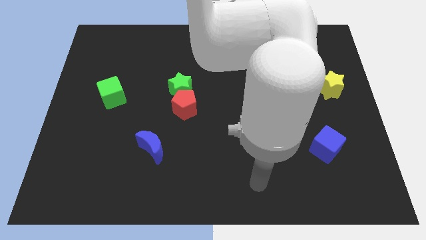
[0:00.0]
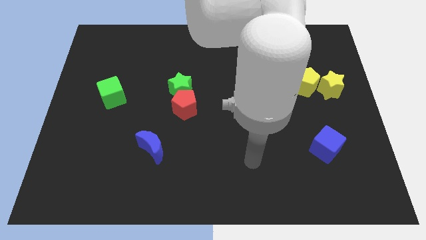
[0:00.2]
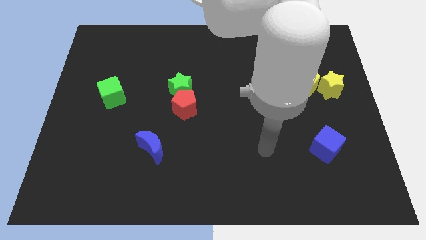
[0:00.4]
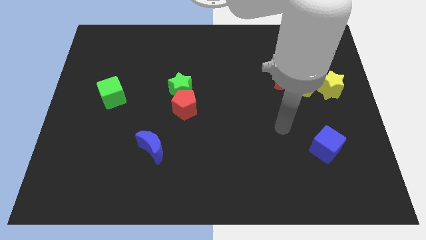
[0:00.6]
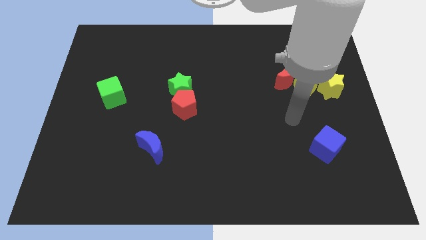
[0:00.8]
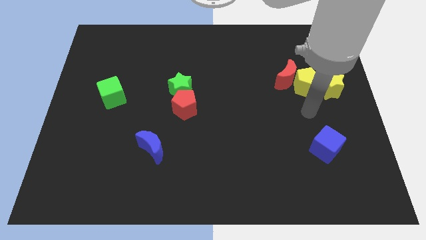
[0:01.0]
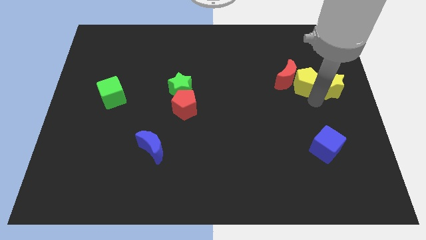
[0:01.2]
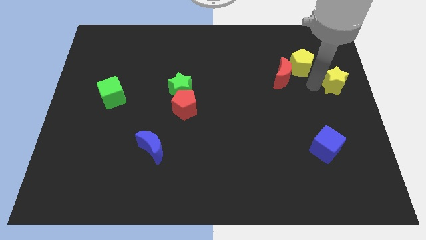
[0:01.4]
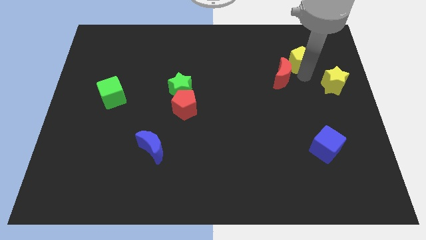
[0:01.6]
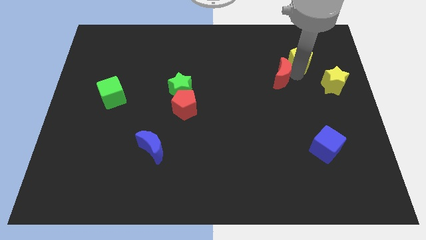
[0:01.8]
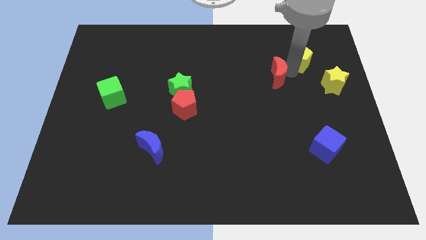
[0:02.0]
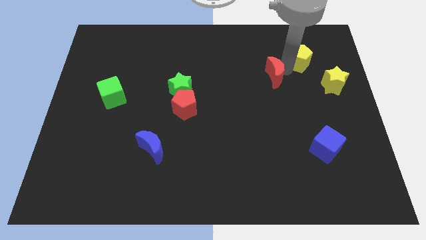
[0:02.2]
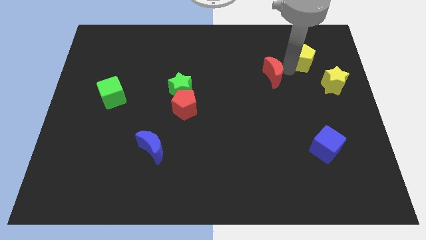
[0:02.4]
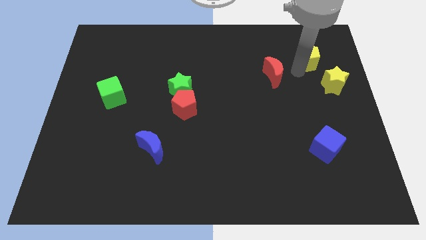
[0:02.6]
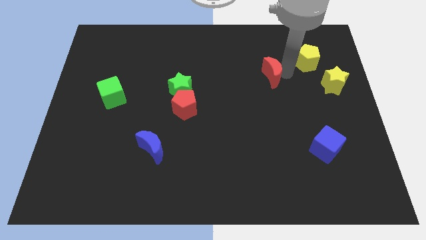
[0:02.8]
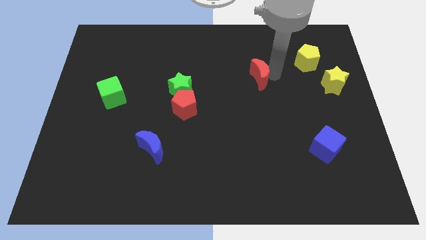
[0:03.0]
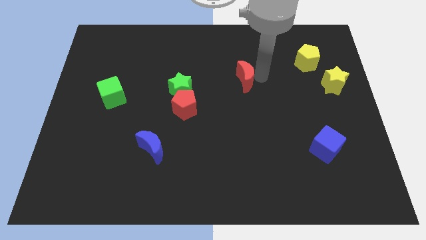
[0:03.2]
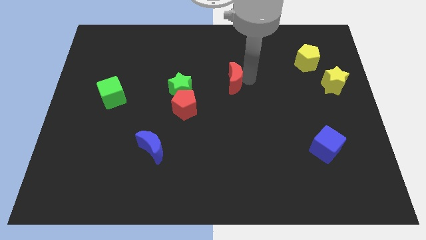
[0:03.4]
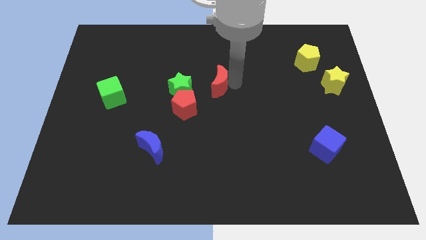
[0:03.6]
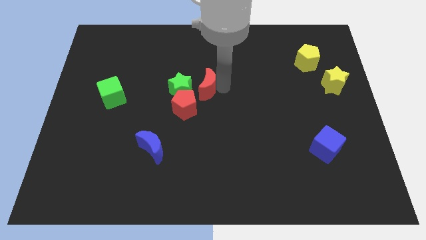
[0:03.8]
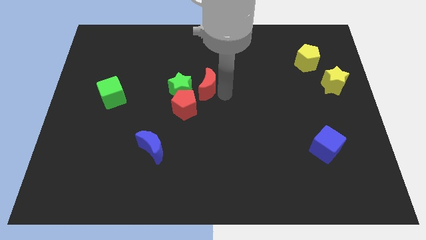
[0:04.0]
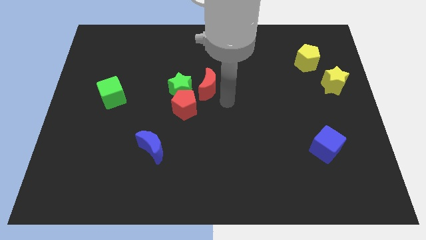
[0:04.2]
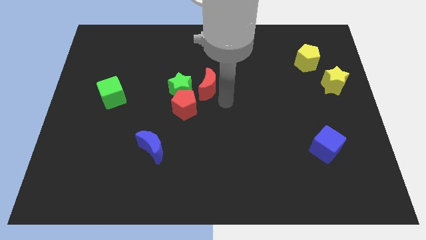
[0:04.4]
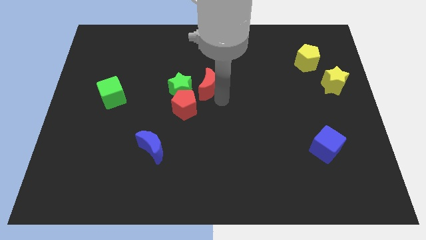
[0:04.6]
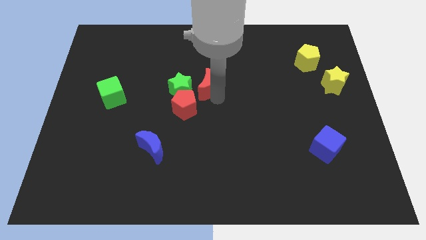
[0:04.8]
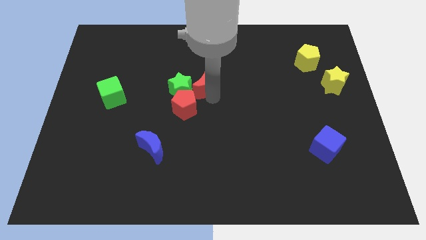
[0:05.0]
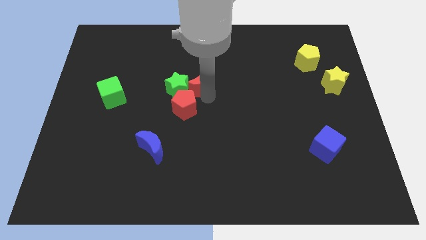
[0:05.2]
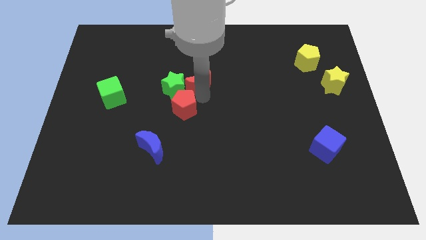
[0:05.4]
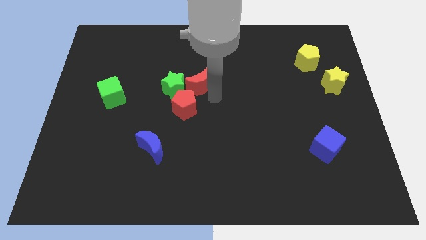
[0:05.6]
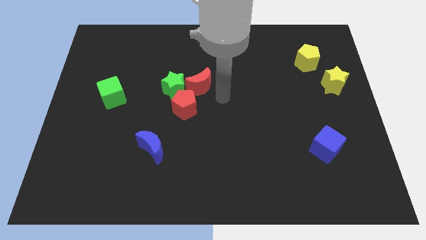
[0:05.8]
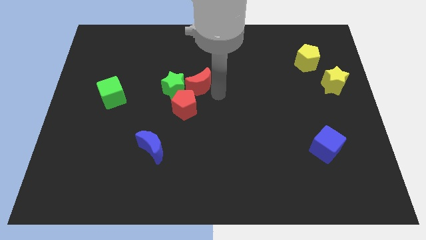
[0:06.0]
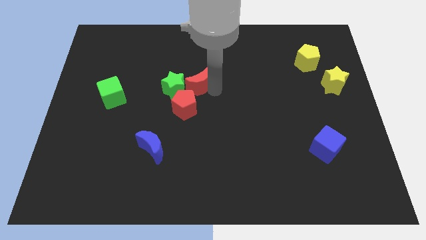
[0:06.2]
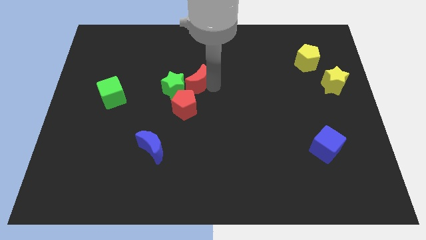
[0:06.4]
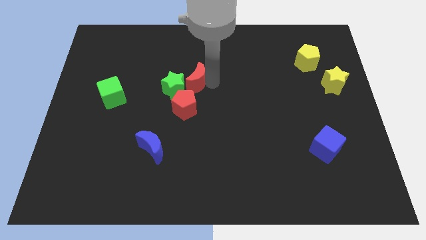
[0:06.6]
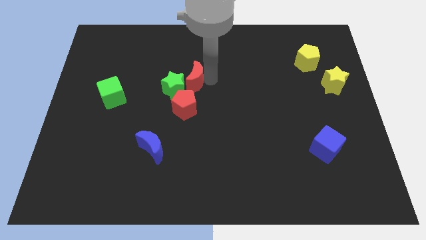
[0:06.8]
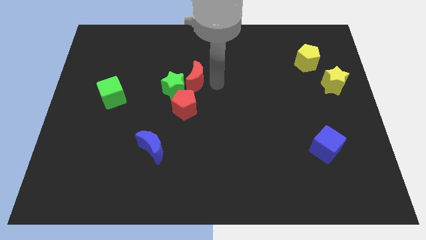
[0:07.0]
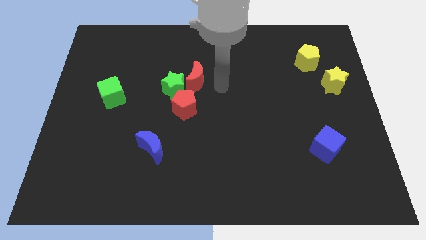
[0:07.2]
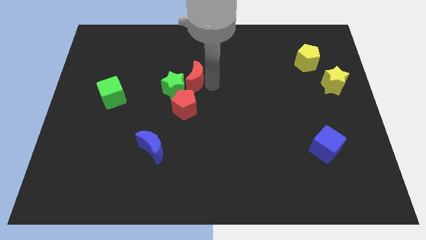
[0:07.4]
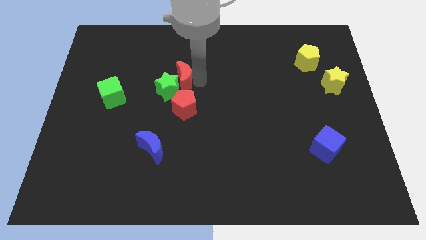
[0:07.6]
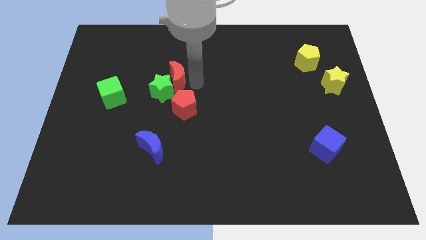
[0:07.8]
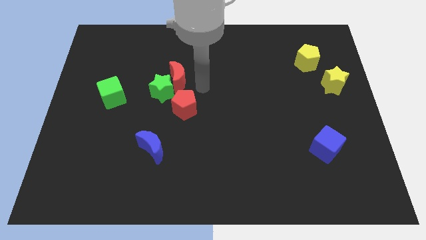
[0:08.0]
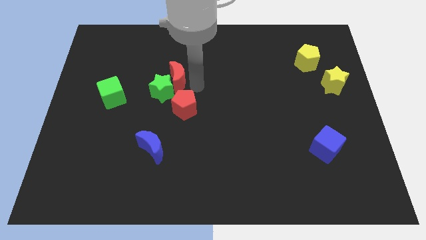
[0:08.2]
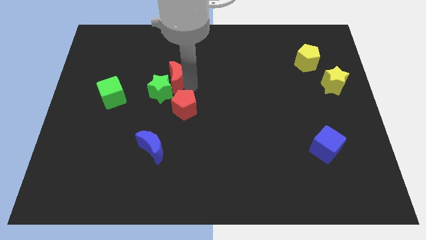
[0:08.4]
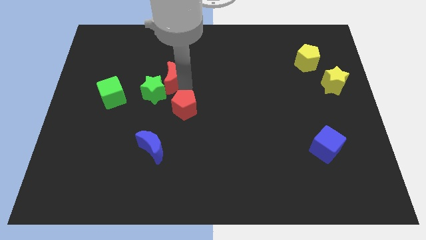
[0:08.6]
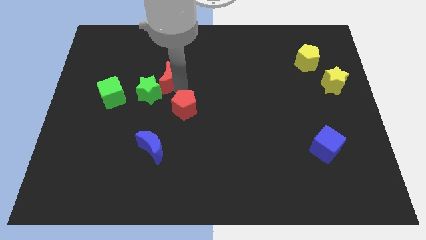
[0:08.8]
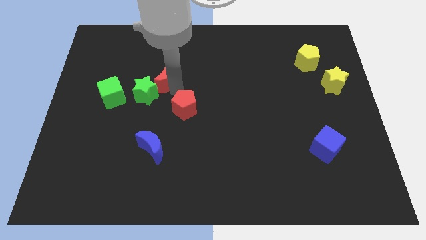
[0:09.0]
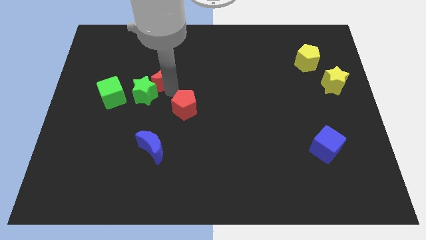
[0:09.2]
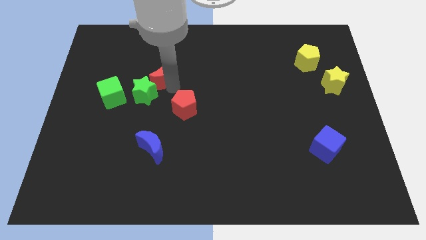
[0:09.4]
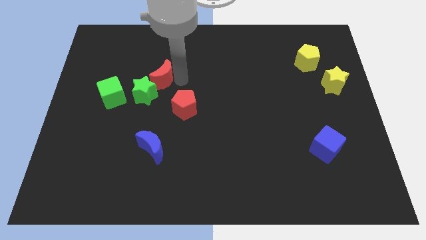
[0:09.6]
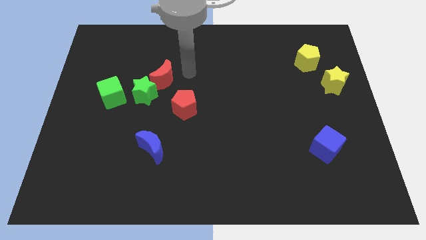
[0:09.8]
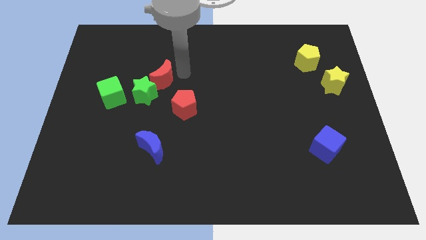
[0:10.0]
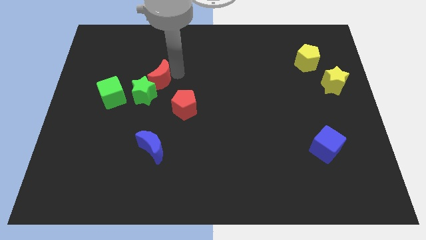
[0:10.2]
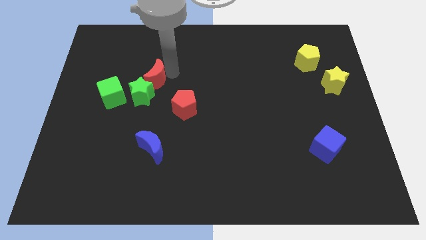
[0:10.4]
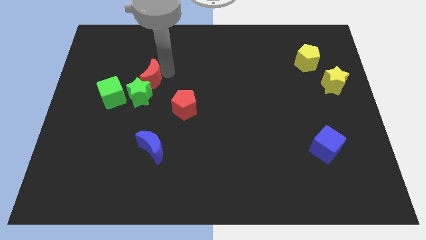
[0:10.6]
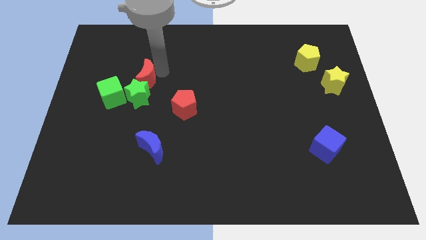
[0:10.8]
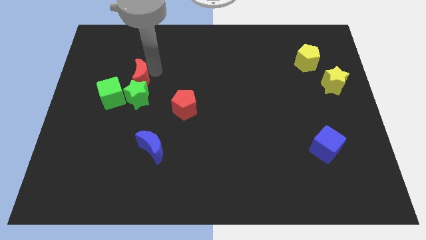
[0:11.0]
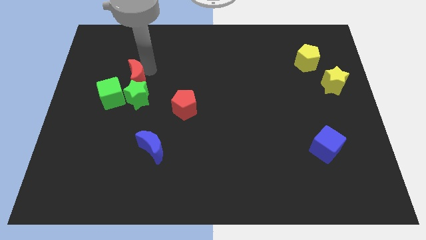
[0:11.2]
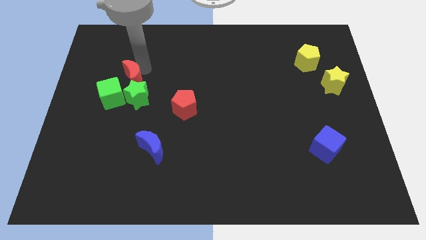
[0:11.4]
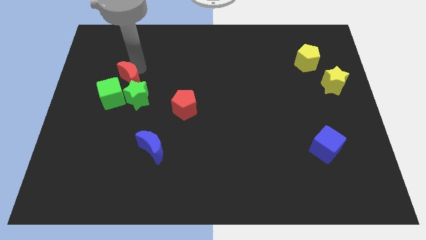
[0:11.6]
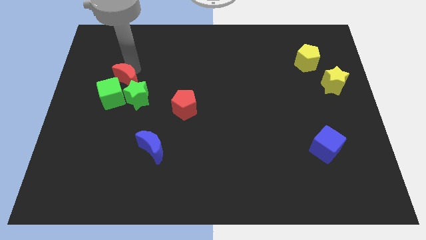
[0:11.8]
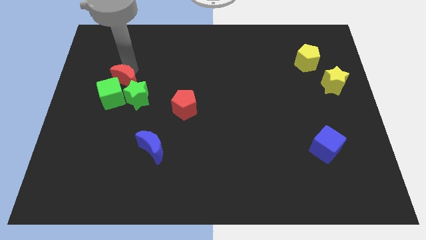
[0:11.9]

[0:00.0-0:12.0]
push the red moon next to the green cube

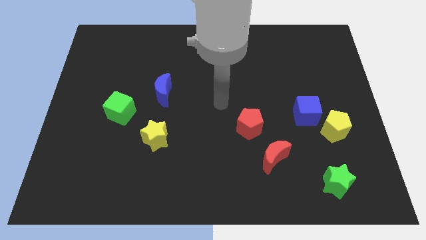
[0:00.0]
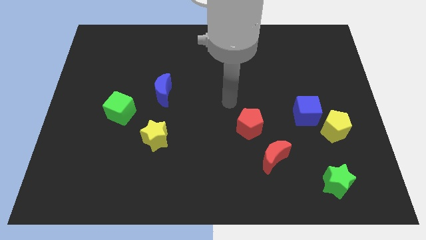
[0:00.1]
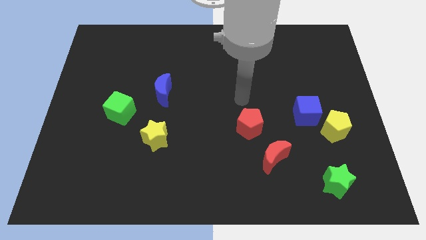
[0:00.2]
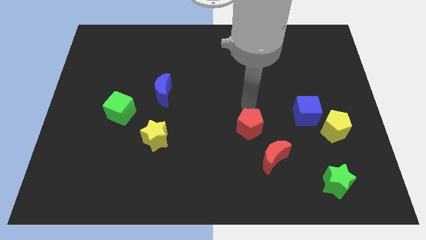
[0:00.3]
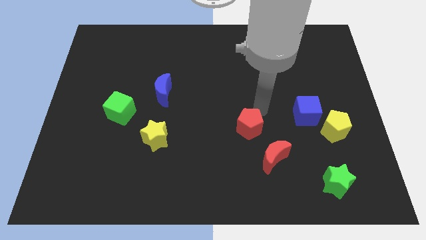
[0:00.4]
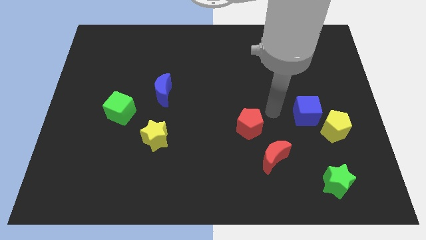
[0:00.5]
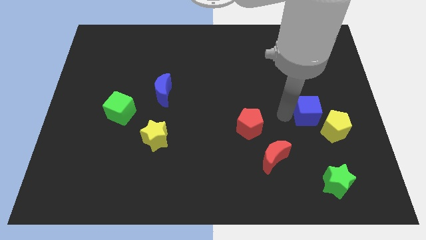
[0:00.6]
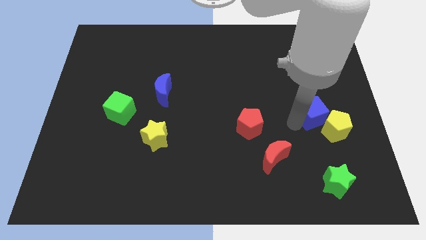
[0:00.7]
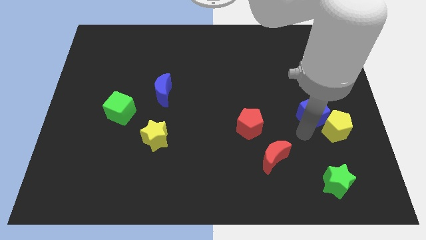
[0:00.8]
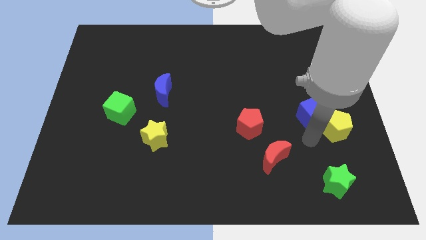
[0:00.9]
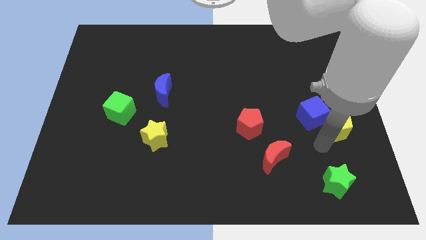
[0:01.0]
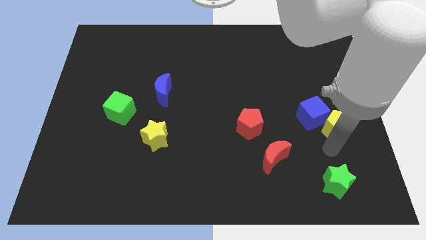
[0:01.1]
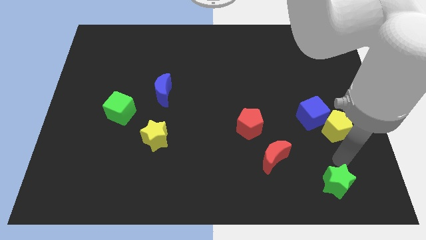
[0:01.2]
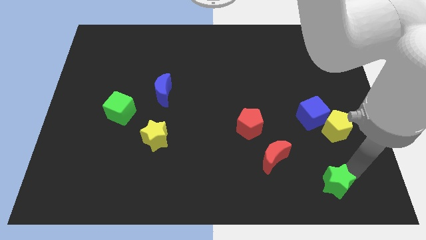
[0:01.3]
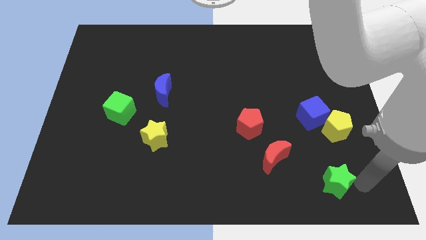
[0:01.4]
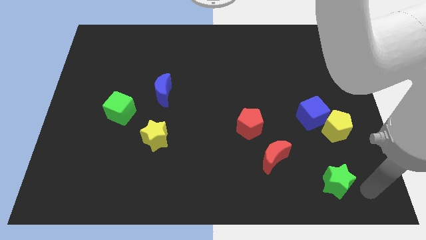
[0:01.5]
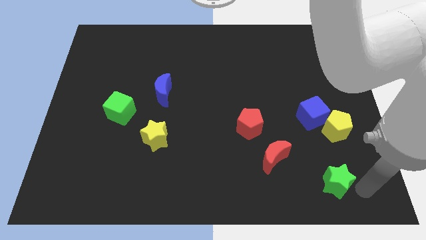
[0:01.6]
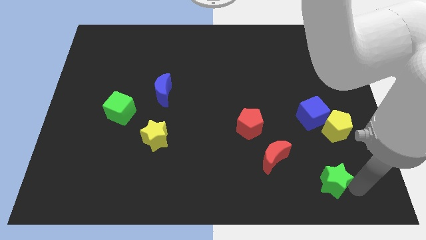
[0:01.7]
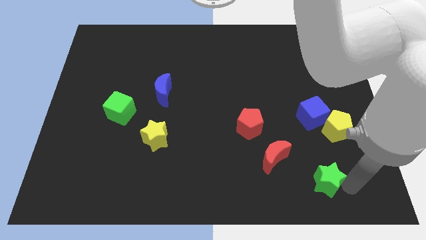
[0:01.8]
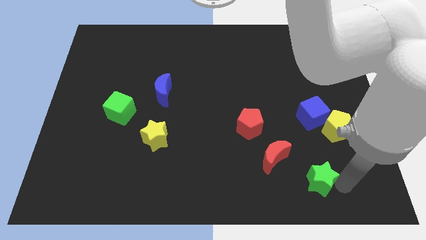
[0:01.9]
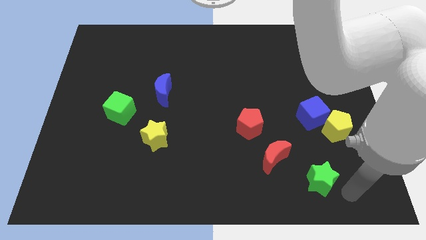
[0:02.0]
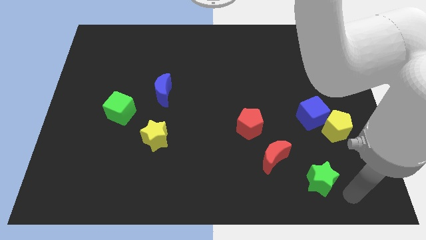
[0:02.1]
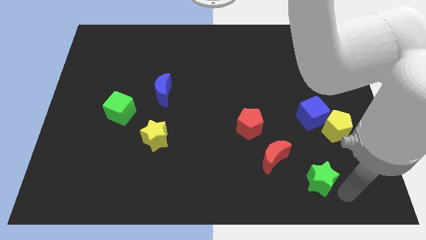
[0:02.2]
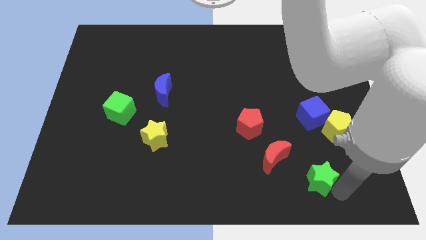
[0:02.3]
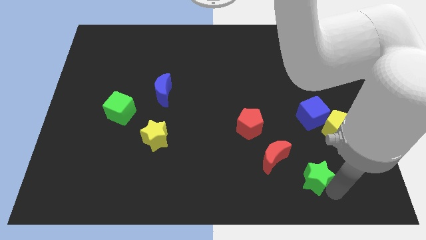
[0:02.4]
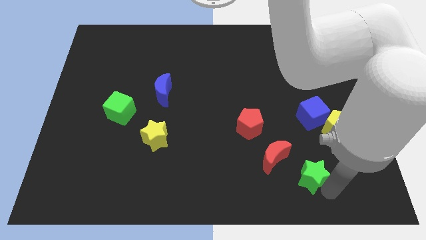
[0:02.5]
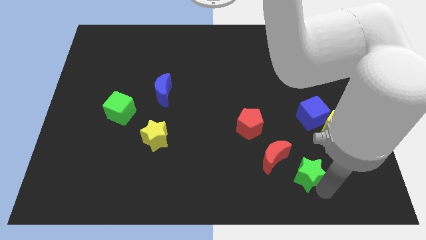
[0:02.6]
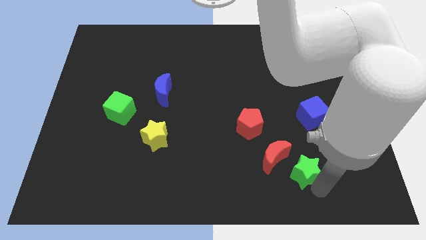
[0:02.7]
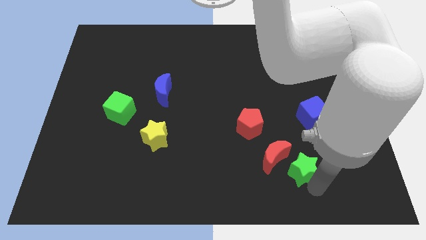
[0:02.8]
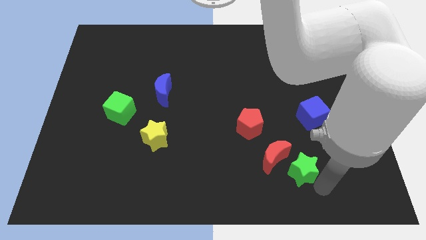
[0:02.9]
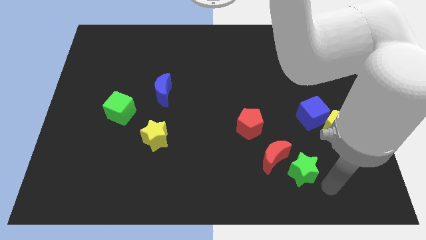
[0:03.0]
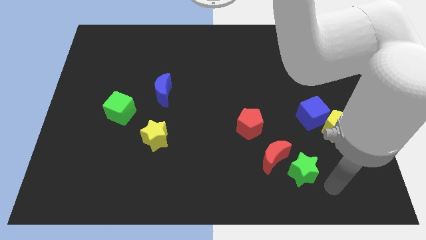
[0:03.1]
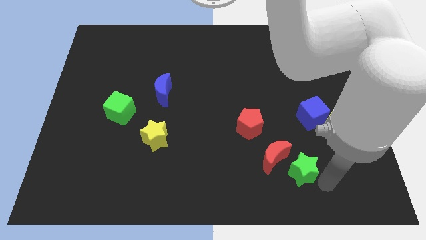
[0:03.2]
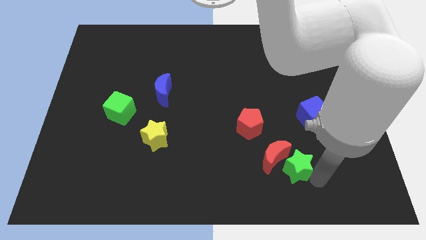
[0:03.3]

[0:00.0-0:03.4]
move the green star close to the red moon
